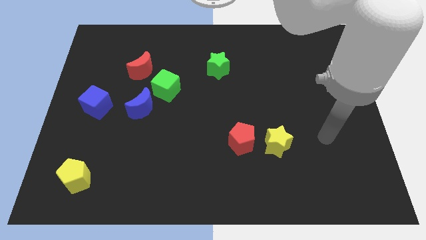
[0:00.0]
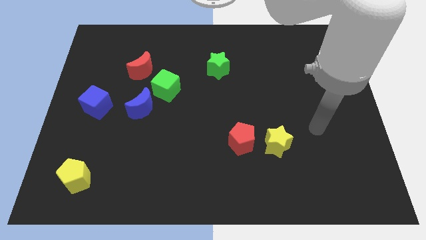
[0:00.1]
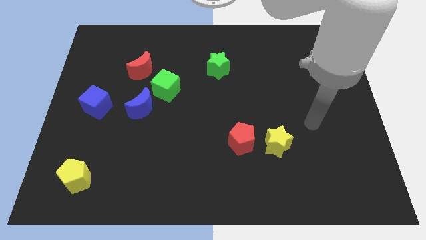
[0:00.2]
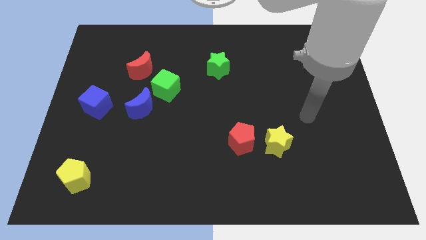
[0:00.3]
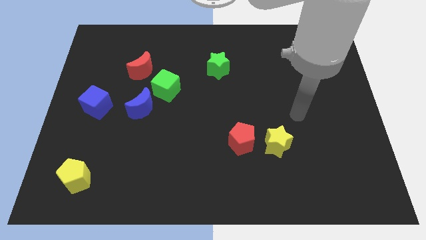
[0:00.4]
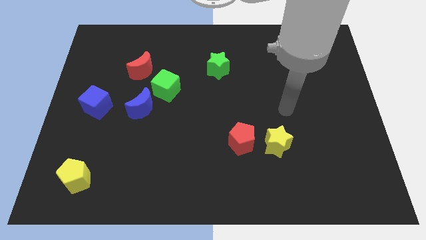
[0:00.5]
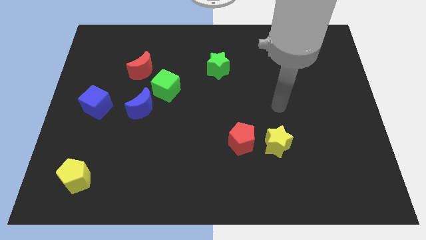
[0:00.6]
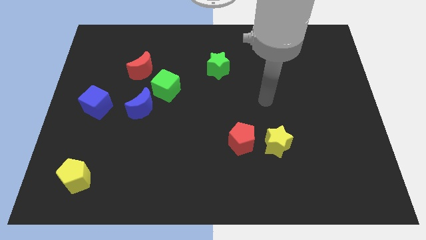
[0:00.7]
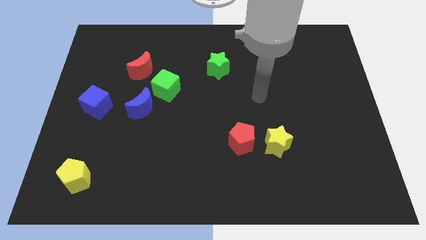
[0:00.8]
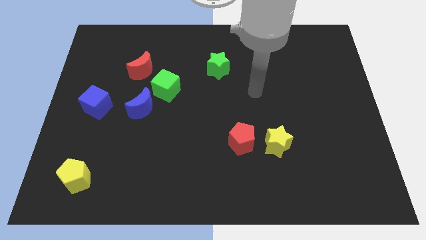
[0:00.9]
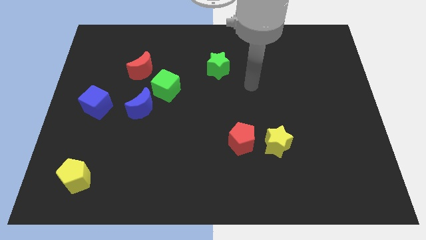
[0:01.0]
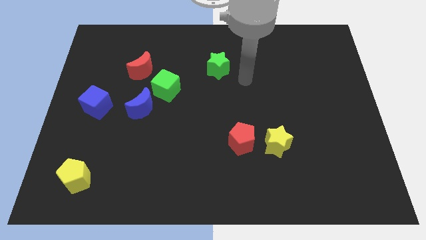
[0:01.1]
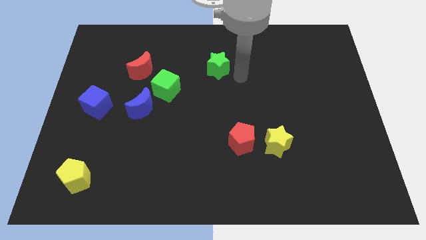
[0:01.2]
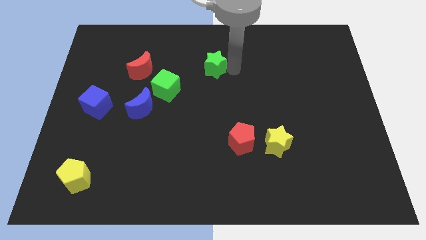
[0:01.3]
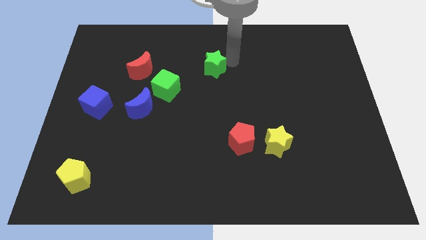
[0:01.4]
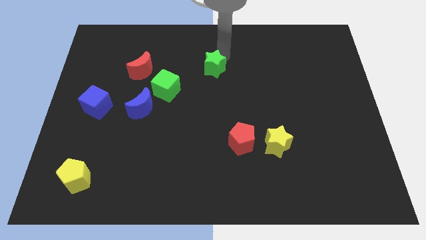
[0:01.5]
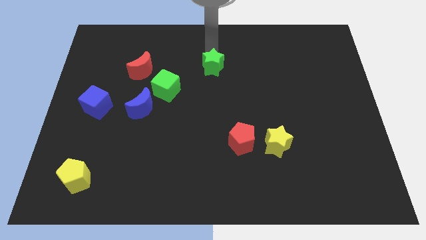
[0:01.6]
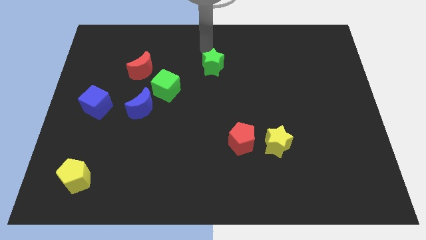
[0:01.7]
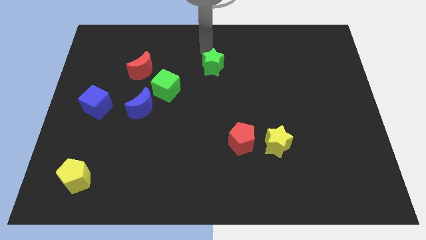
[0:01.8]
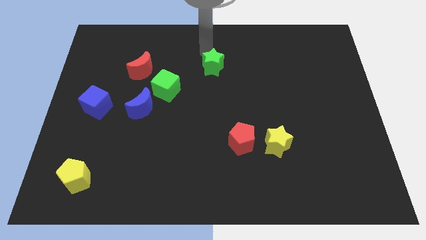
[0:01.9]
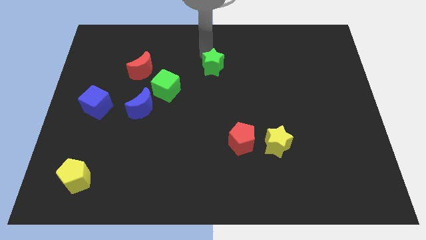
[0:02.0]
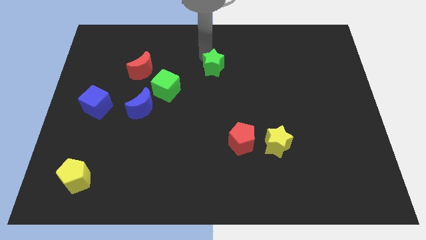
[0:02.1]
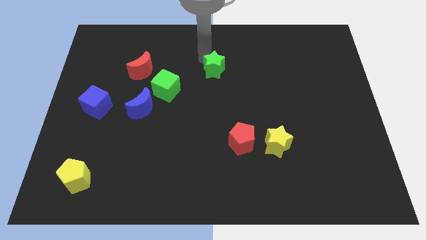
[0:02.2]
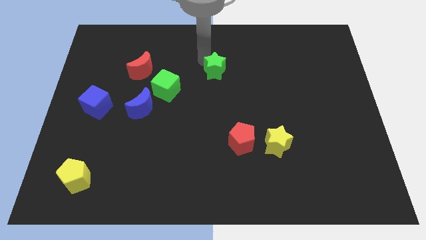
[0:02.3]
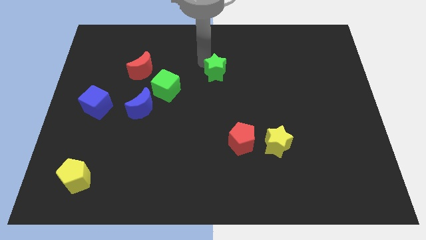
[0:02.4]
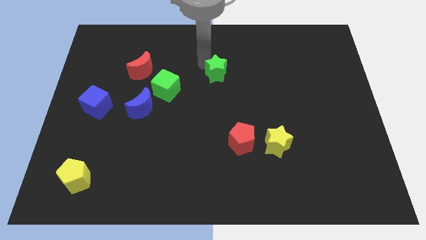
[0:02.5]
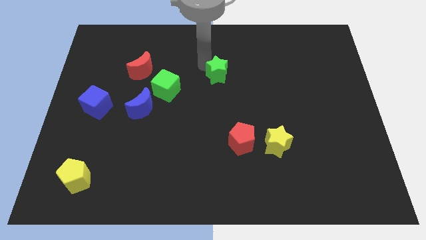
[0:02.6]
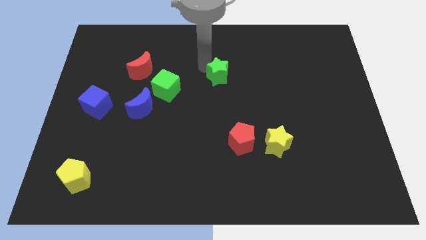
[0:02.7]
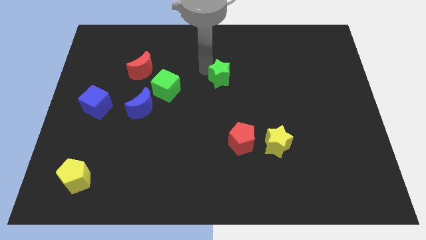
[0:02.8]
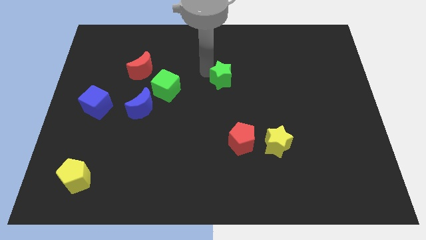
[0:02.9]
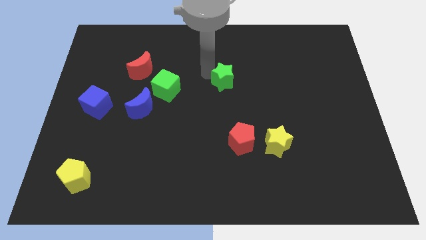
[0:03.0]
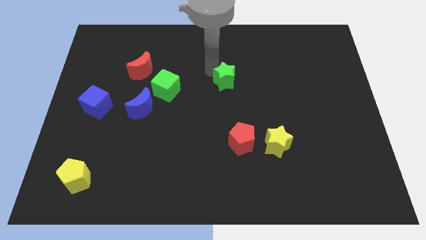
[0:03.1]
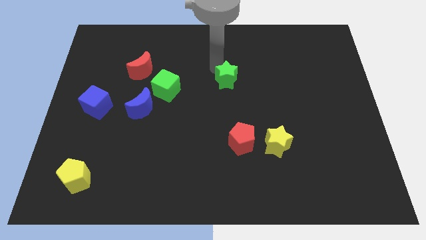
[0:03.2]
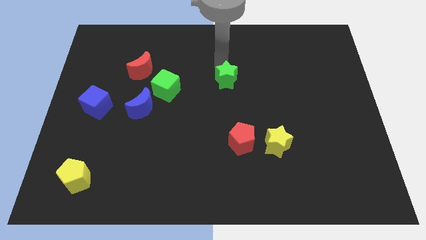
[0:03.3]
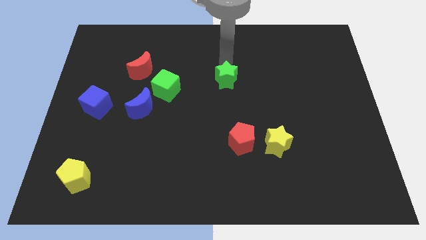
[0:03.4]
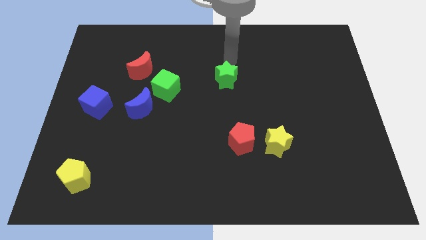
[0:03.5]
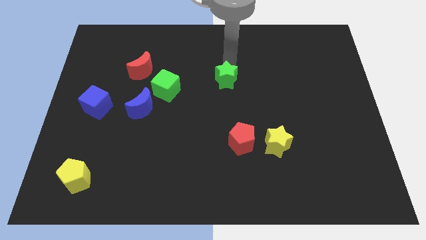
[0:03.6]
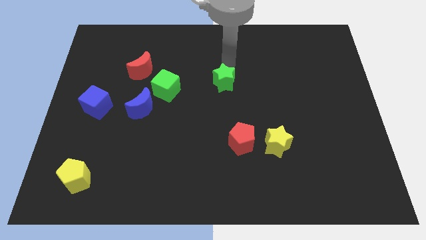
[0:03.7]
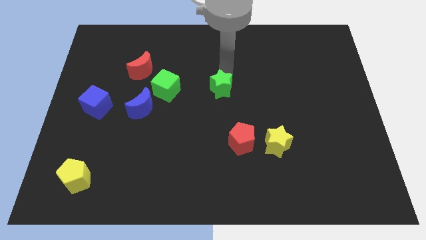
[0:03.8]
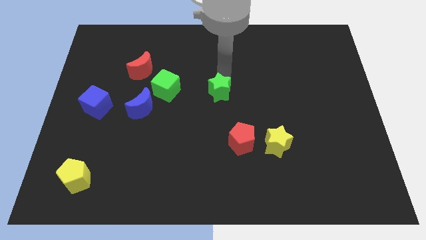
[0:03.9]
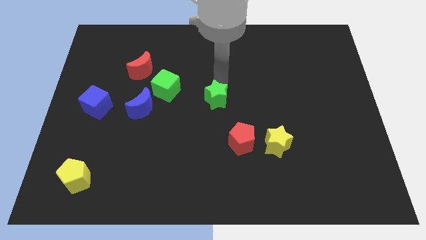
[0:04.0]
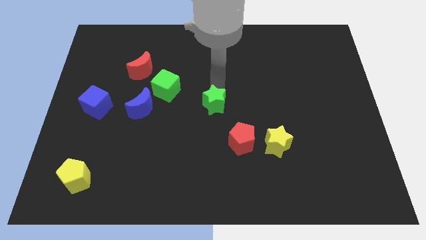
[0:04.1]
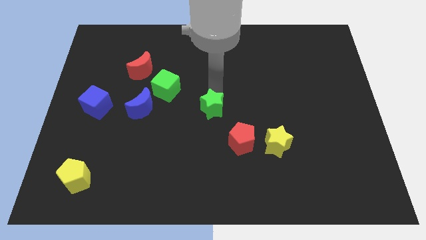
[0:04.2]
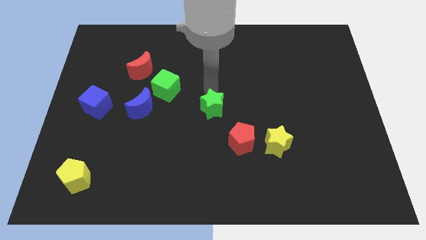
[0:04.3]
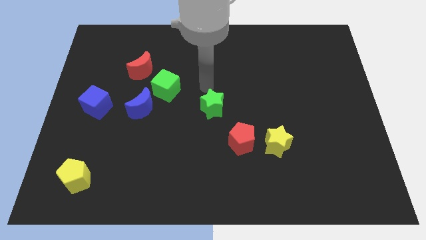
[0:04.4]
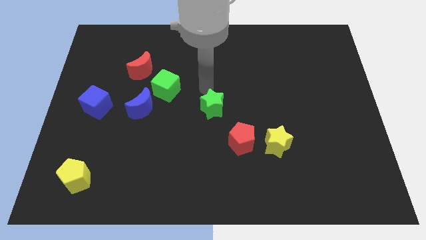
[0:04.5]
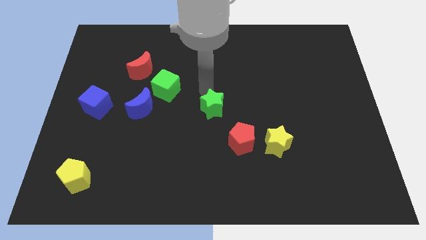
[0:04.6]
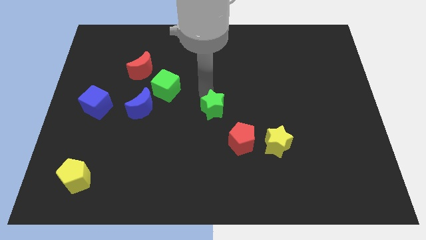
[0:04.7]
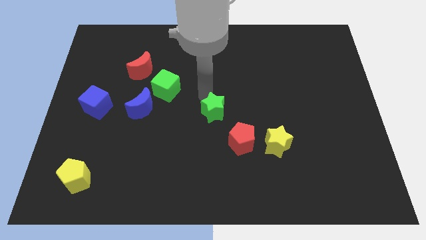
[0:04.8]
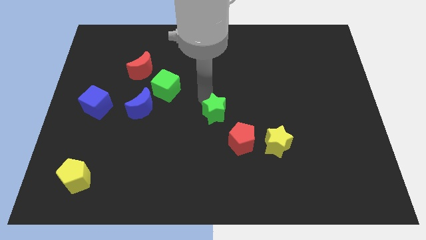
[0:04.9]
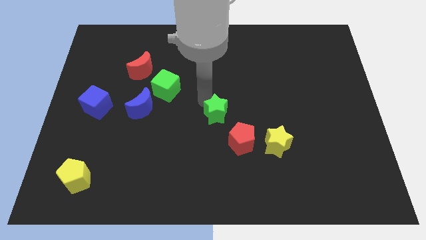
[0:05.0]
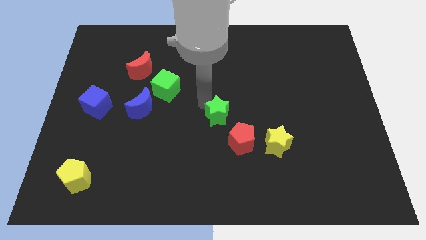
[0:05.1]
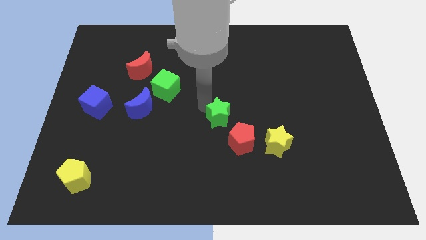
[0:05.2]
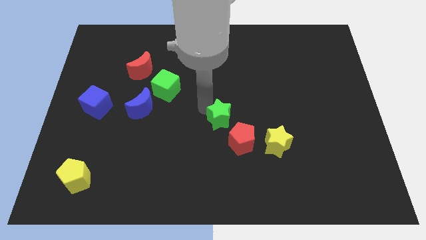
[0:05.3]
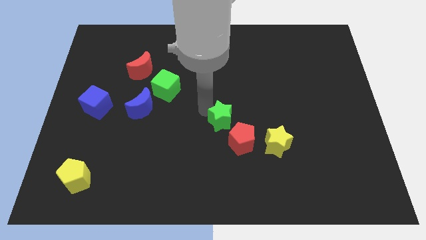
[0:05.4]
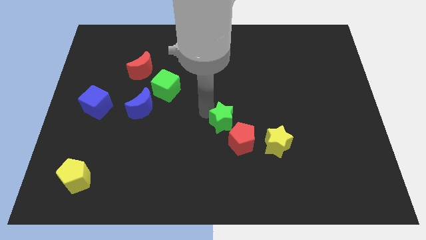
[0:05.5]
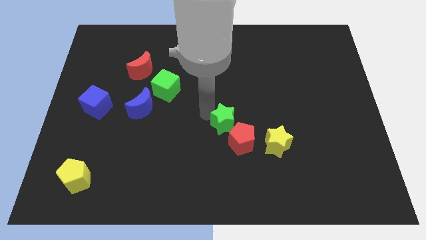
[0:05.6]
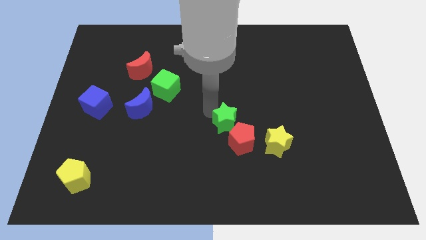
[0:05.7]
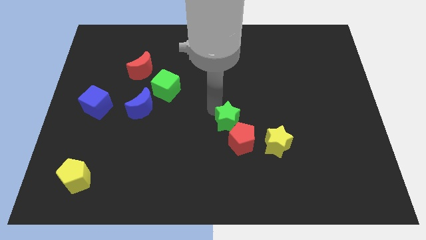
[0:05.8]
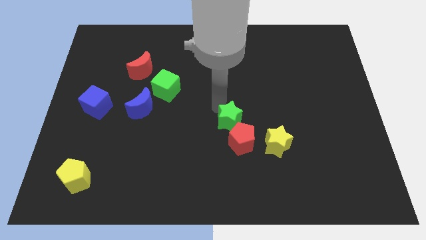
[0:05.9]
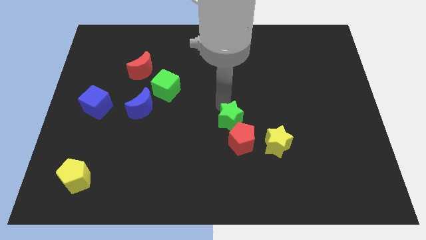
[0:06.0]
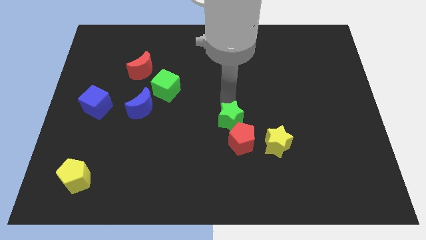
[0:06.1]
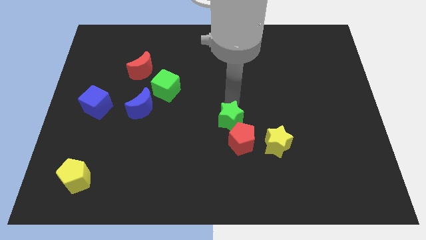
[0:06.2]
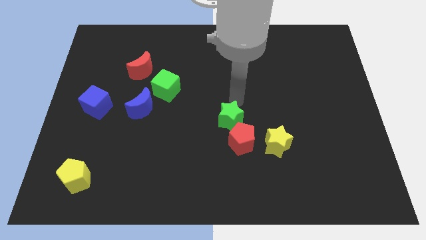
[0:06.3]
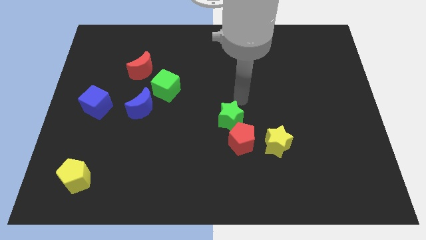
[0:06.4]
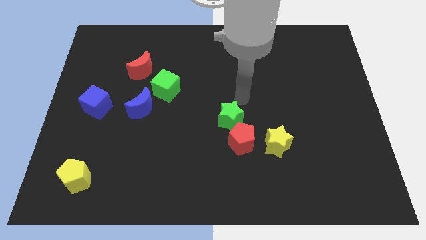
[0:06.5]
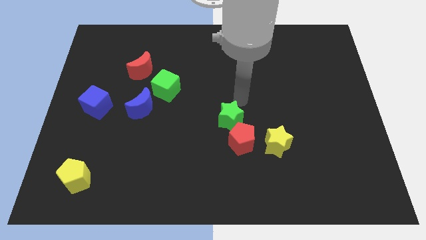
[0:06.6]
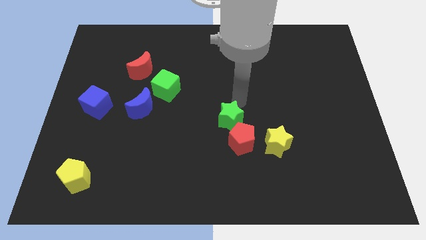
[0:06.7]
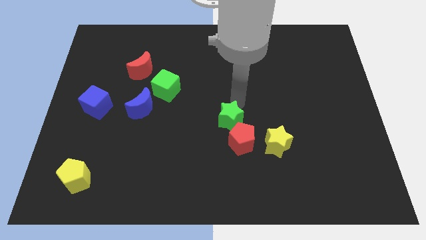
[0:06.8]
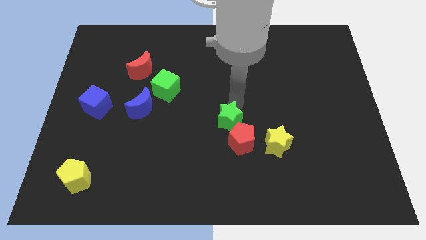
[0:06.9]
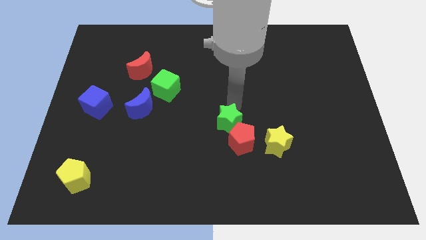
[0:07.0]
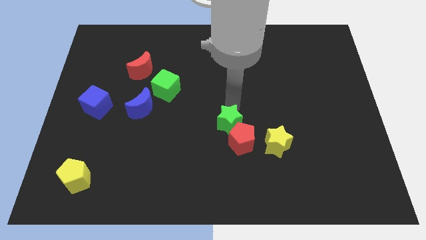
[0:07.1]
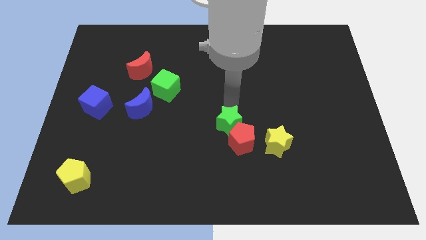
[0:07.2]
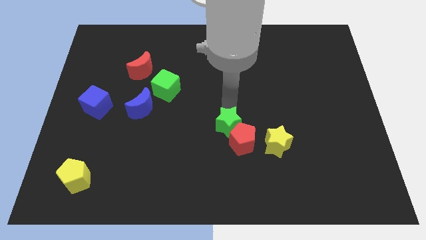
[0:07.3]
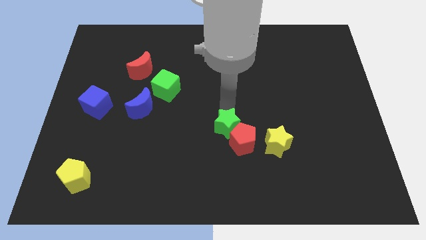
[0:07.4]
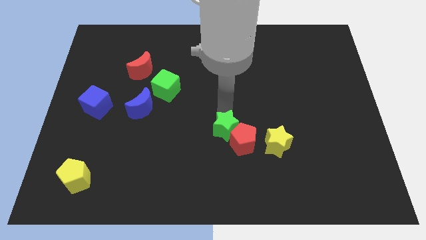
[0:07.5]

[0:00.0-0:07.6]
put the green star to the left side of the yellow star
